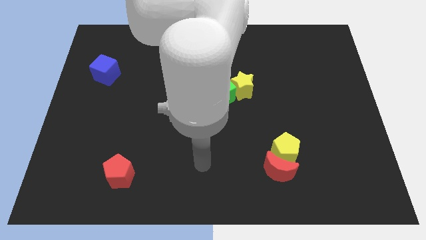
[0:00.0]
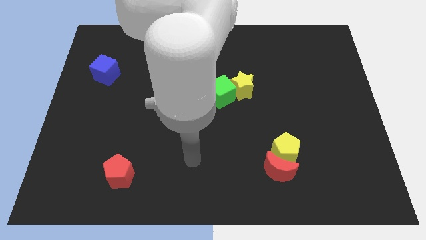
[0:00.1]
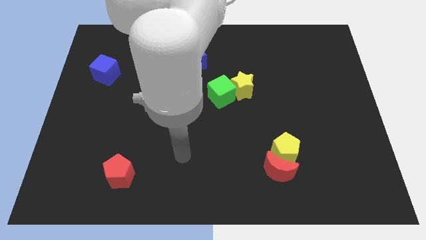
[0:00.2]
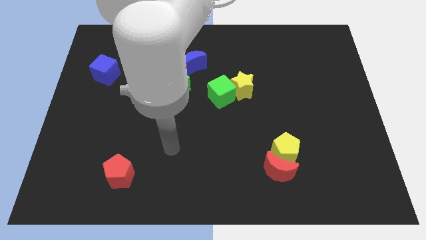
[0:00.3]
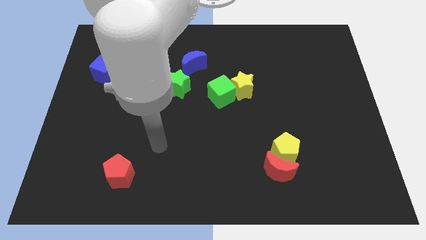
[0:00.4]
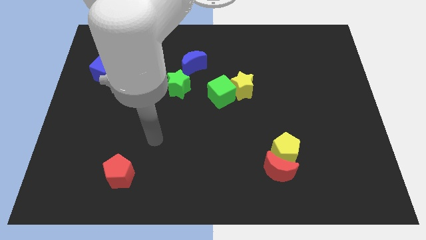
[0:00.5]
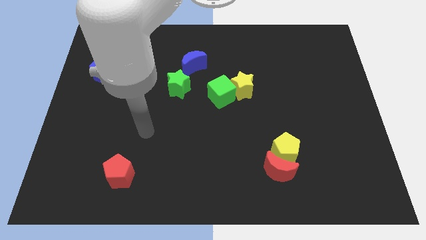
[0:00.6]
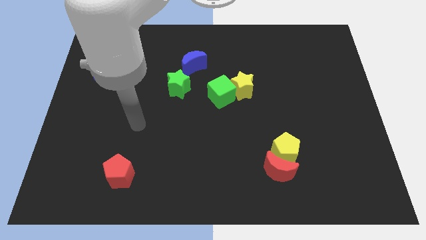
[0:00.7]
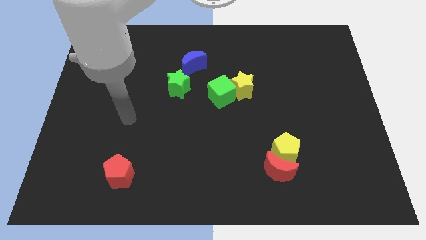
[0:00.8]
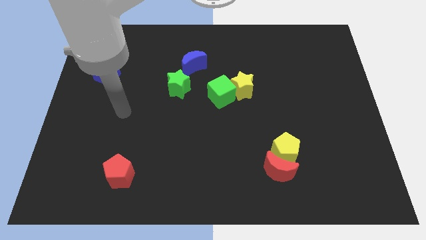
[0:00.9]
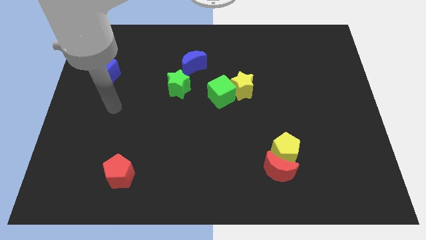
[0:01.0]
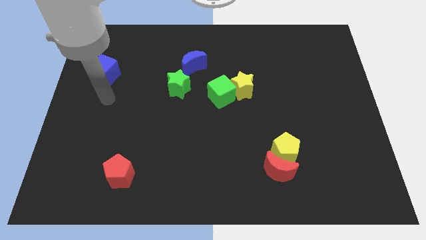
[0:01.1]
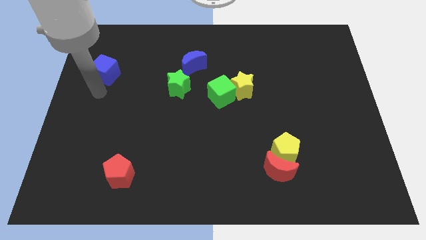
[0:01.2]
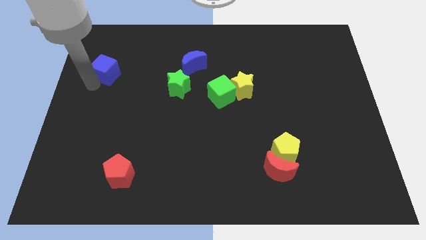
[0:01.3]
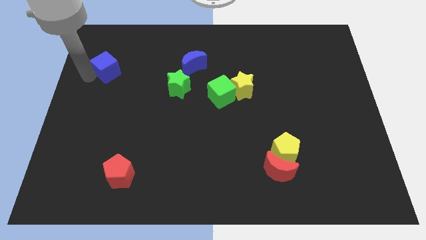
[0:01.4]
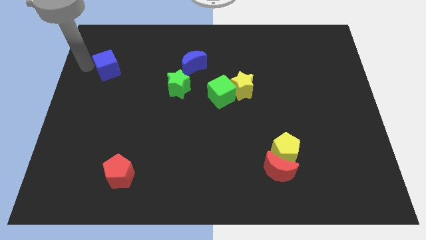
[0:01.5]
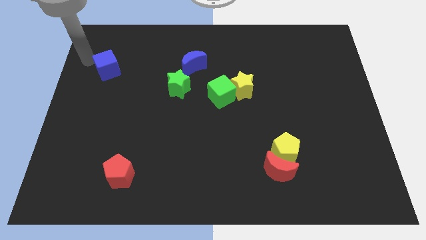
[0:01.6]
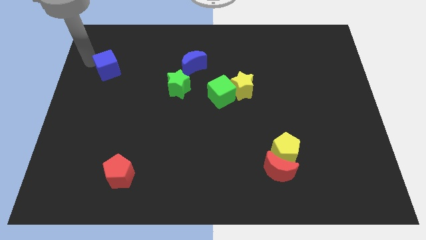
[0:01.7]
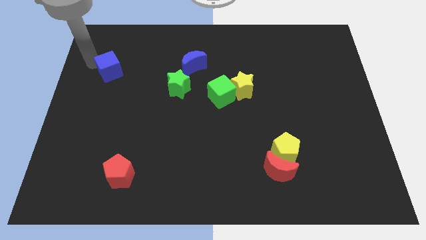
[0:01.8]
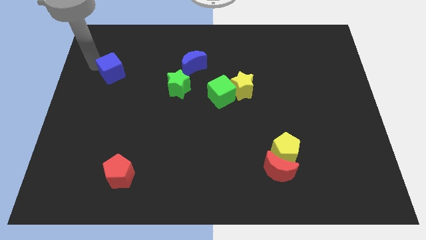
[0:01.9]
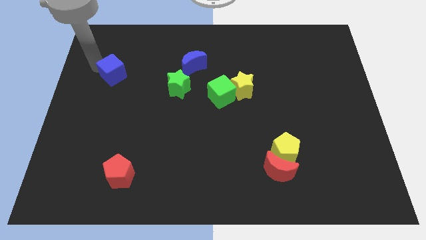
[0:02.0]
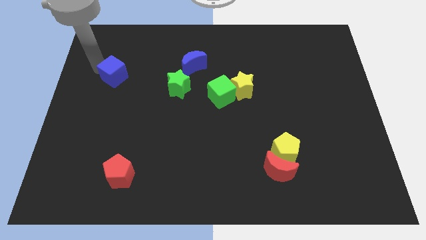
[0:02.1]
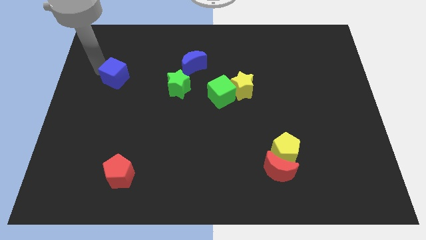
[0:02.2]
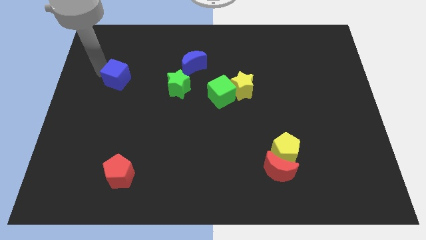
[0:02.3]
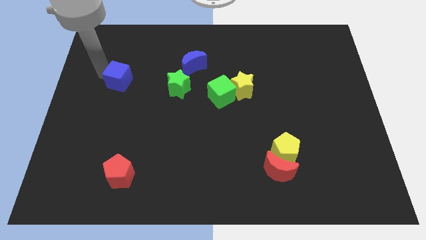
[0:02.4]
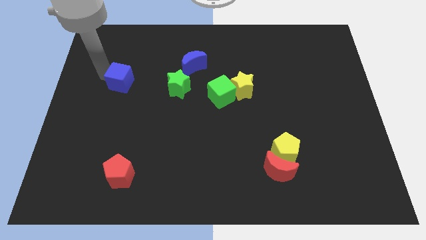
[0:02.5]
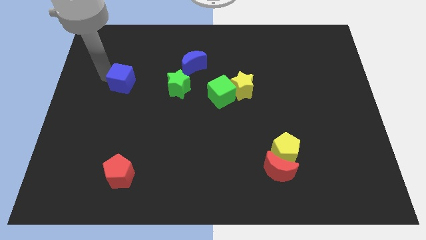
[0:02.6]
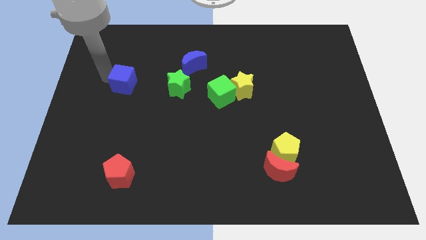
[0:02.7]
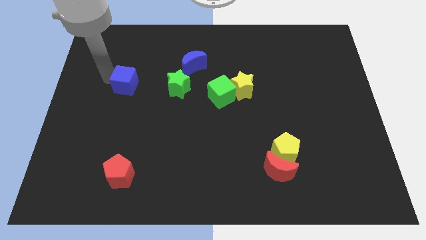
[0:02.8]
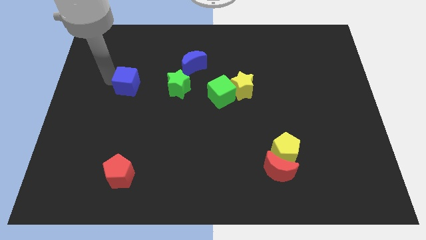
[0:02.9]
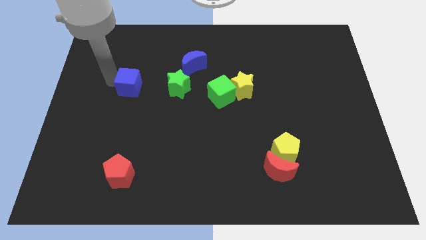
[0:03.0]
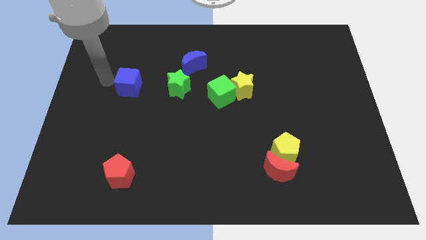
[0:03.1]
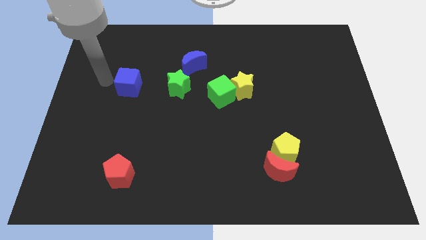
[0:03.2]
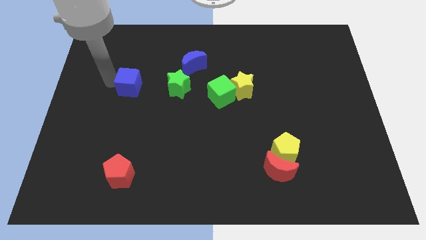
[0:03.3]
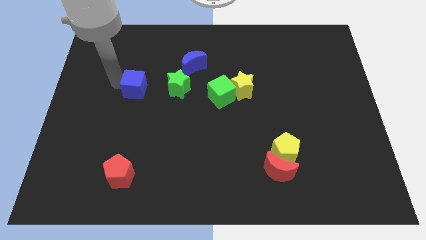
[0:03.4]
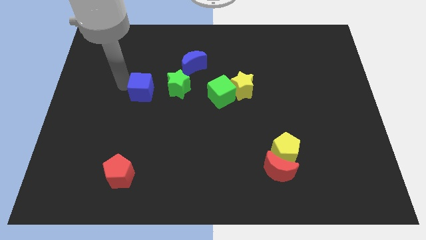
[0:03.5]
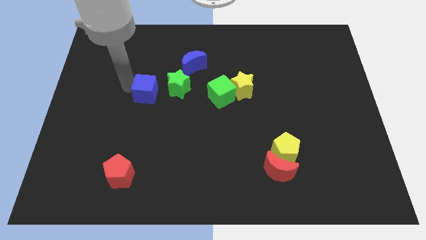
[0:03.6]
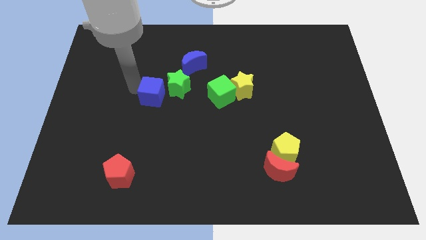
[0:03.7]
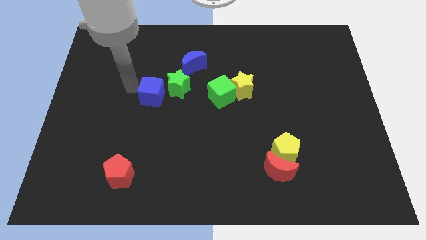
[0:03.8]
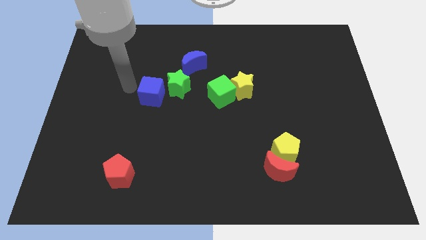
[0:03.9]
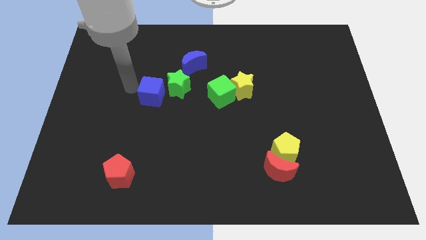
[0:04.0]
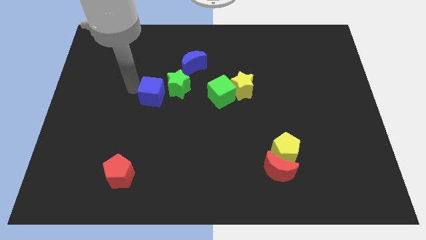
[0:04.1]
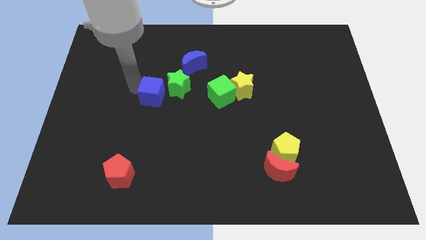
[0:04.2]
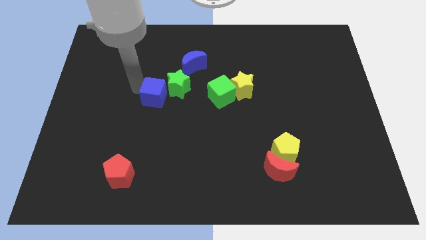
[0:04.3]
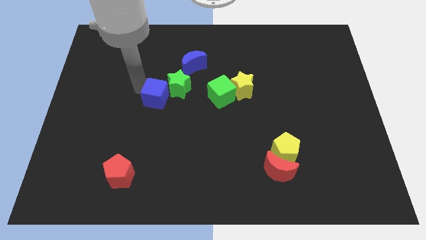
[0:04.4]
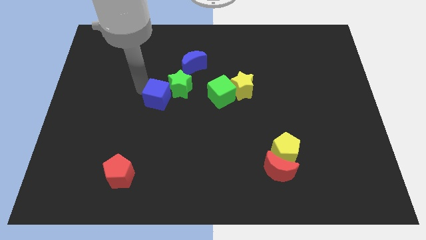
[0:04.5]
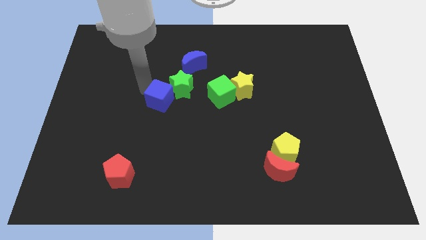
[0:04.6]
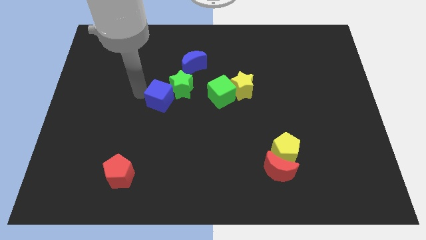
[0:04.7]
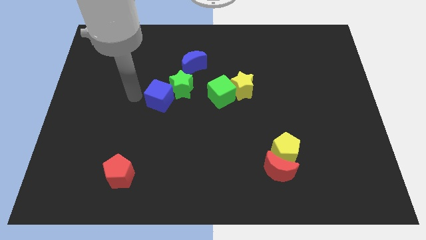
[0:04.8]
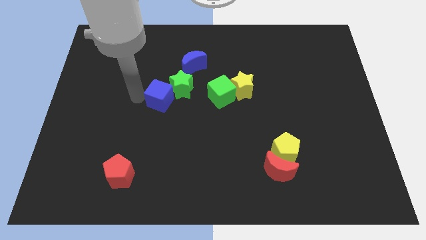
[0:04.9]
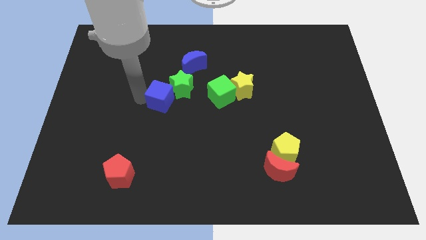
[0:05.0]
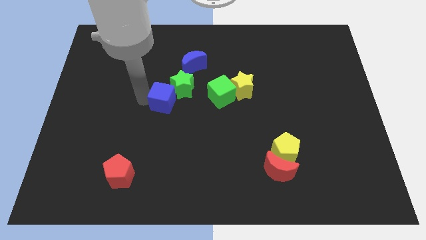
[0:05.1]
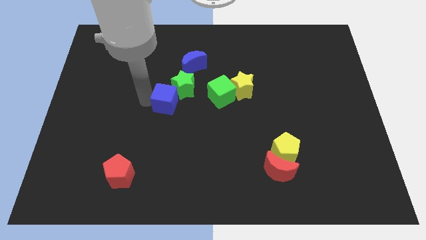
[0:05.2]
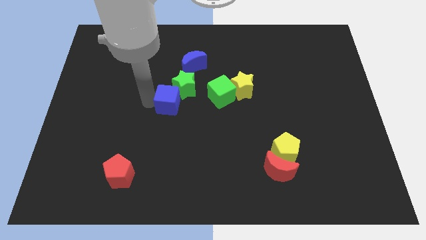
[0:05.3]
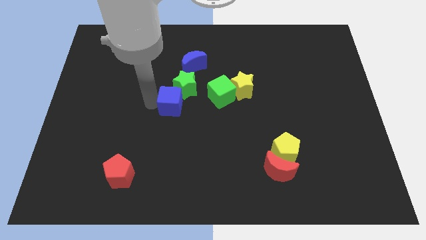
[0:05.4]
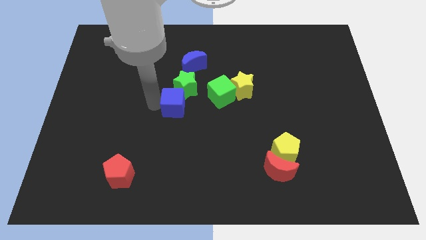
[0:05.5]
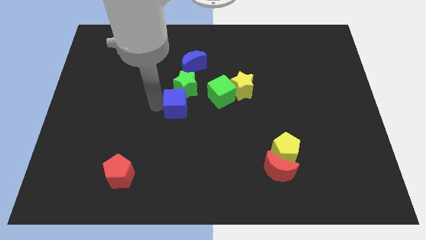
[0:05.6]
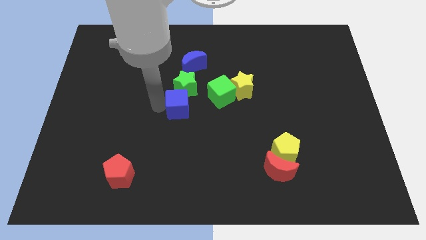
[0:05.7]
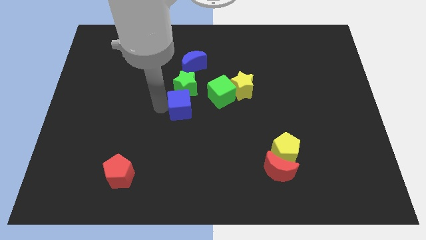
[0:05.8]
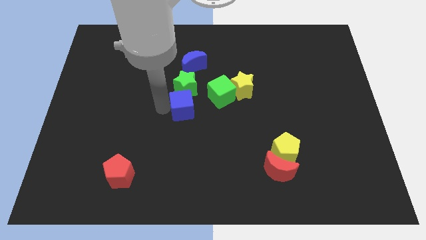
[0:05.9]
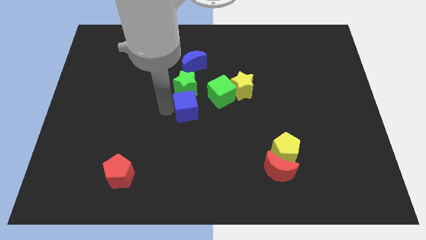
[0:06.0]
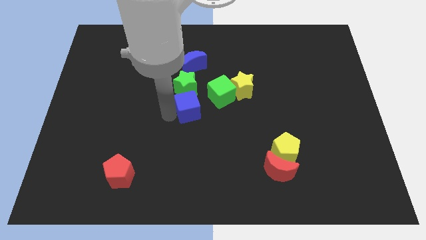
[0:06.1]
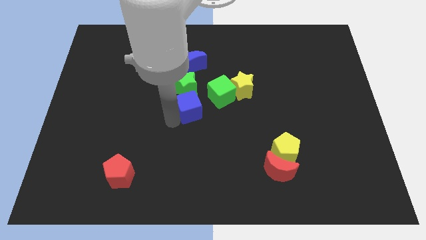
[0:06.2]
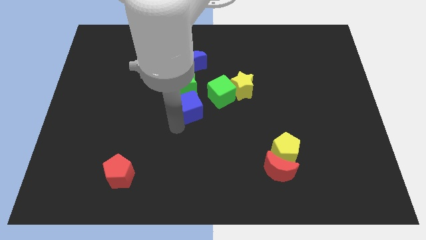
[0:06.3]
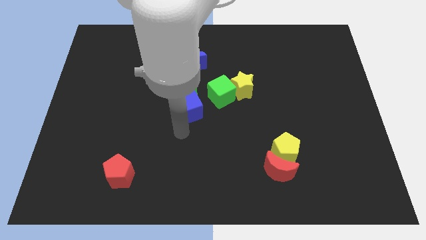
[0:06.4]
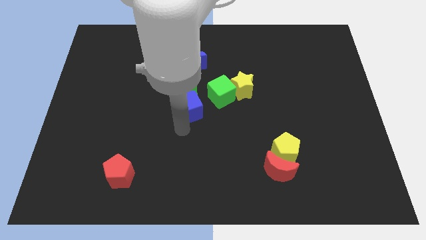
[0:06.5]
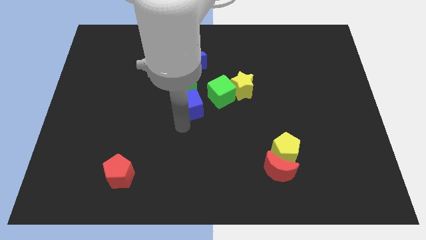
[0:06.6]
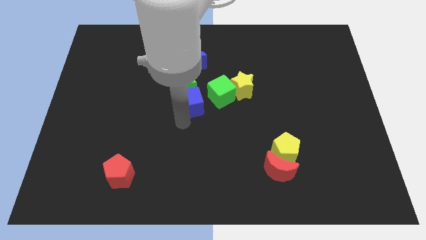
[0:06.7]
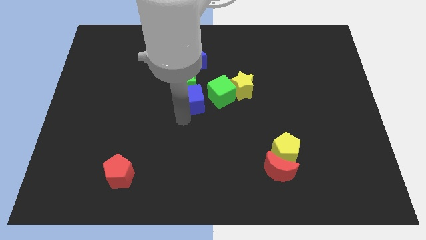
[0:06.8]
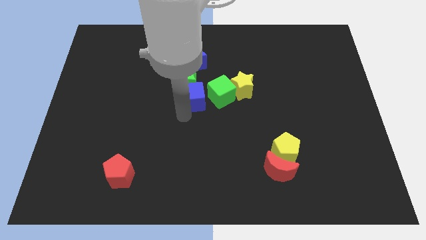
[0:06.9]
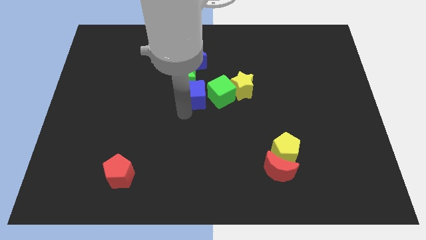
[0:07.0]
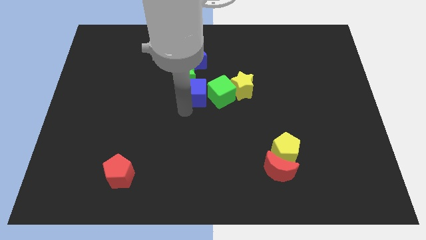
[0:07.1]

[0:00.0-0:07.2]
slide the blue cube to the top left side of the green cube
